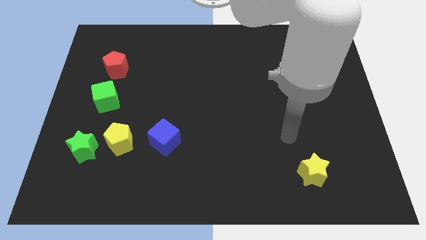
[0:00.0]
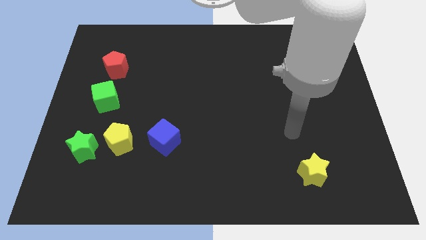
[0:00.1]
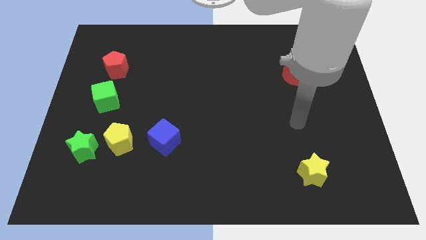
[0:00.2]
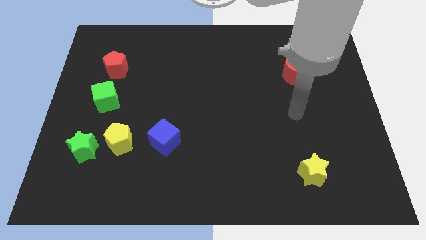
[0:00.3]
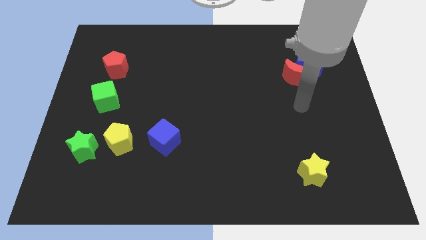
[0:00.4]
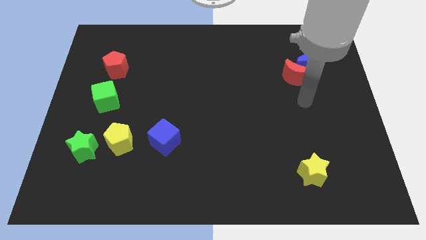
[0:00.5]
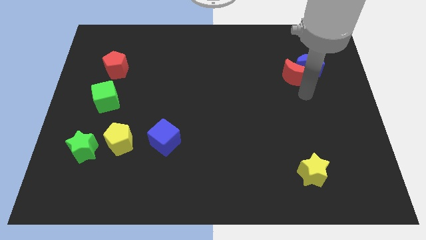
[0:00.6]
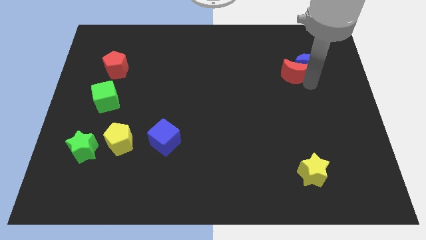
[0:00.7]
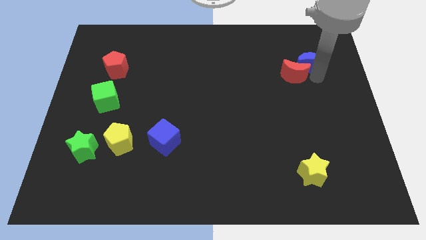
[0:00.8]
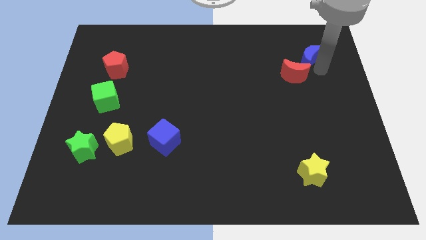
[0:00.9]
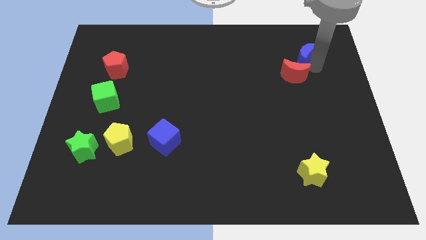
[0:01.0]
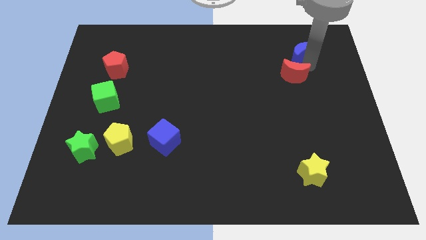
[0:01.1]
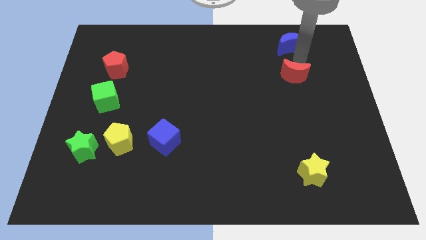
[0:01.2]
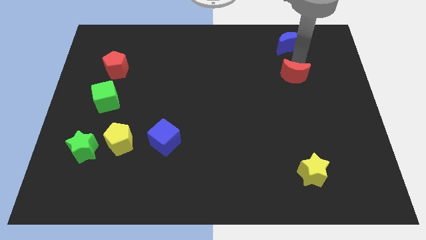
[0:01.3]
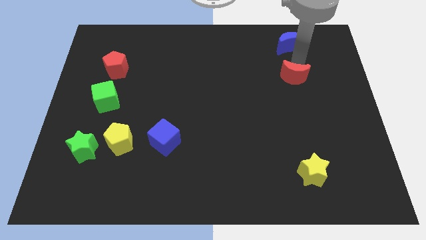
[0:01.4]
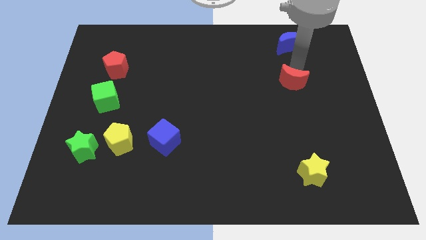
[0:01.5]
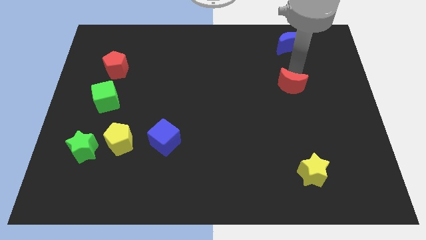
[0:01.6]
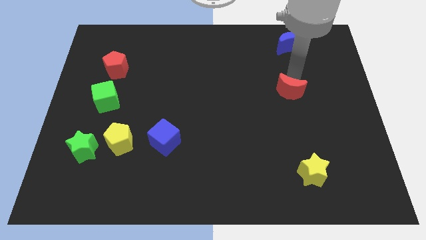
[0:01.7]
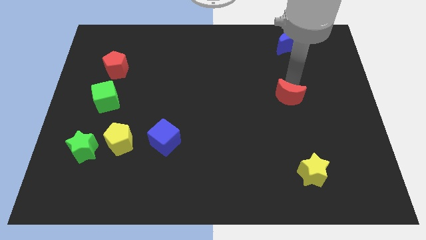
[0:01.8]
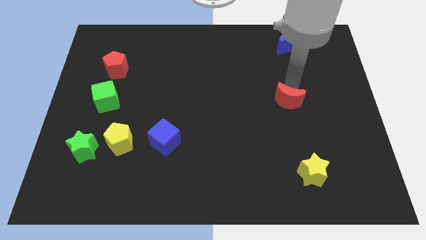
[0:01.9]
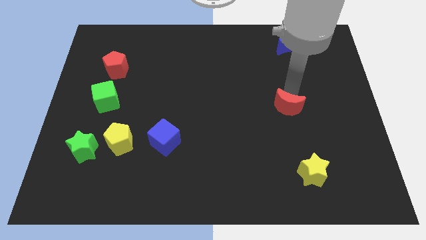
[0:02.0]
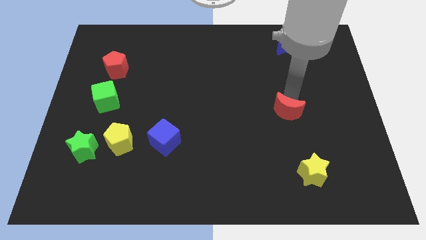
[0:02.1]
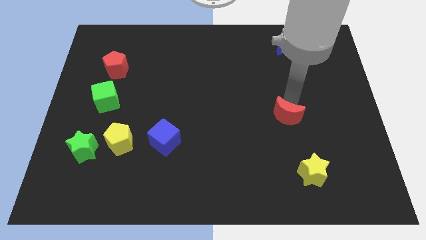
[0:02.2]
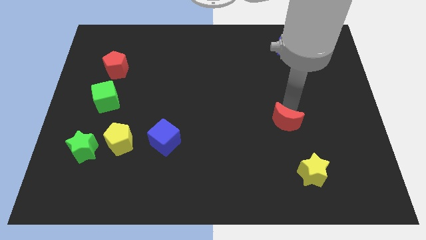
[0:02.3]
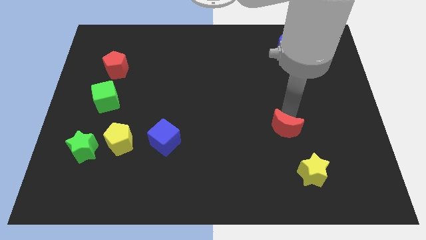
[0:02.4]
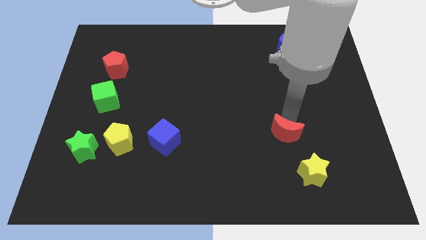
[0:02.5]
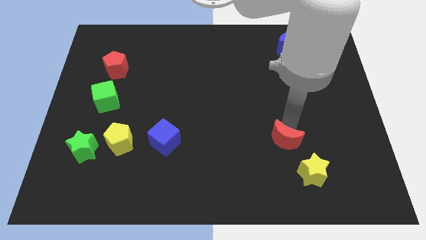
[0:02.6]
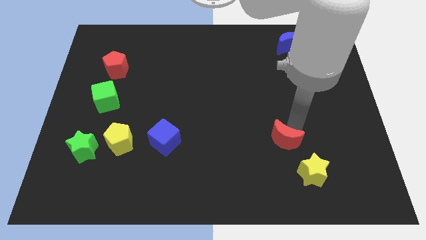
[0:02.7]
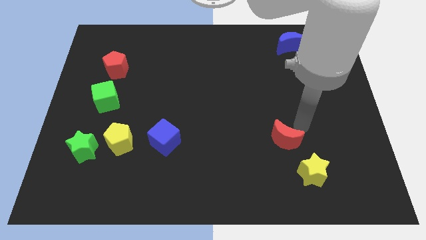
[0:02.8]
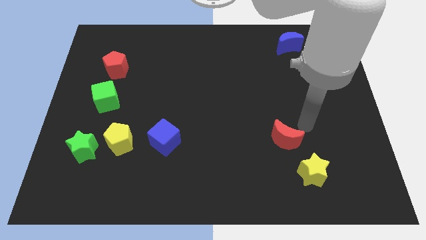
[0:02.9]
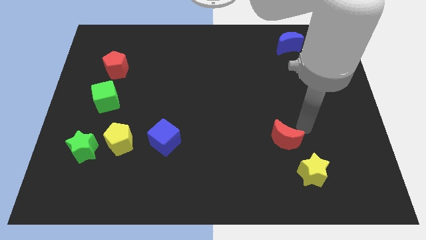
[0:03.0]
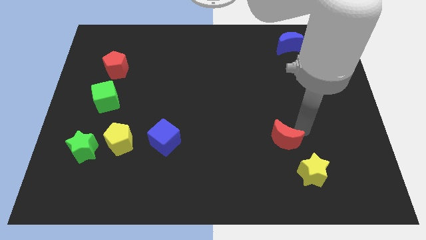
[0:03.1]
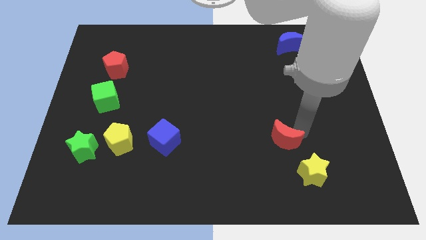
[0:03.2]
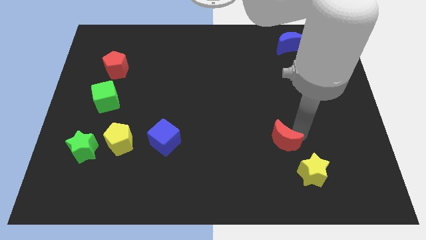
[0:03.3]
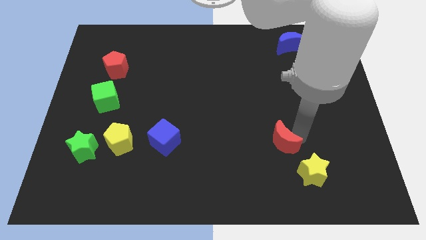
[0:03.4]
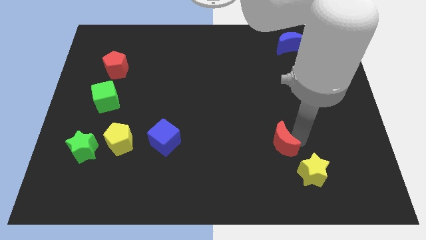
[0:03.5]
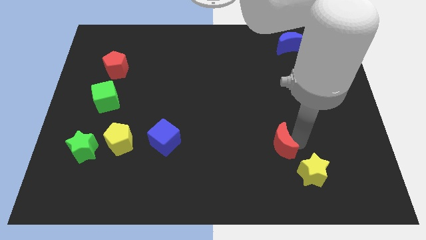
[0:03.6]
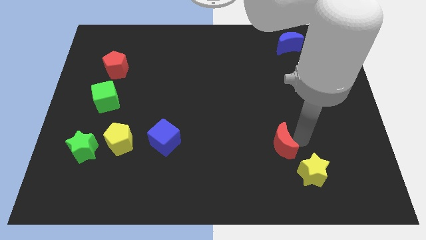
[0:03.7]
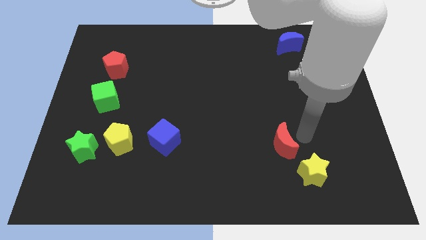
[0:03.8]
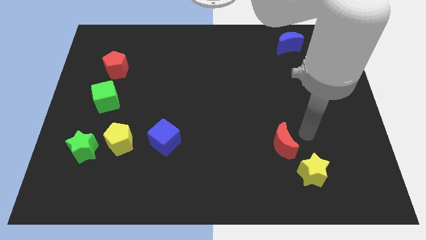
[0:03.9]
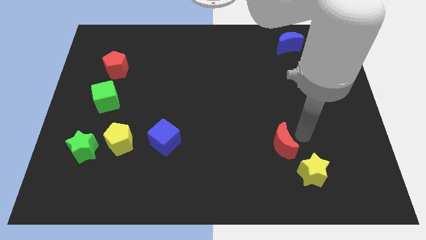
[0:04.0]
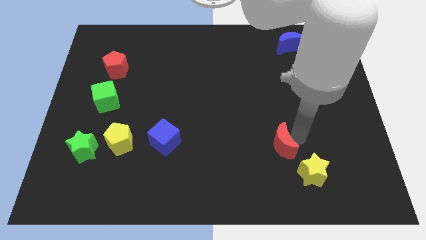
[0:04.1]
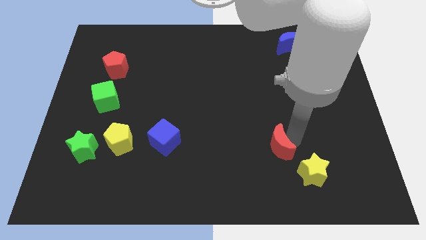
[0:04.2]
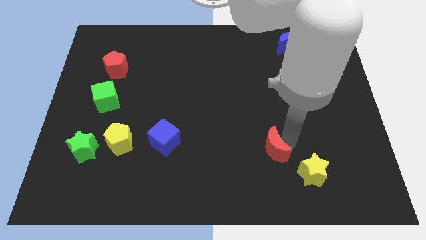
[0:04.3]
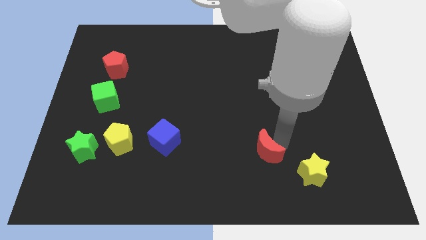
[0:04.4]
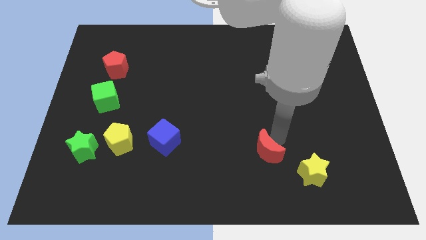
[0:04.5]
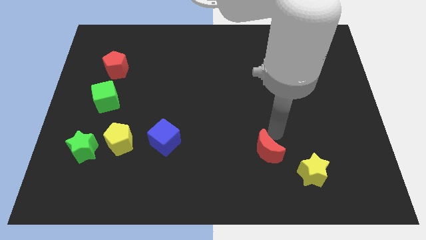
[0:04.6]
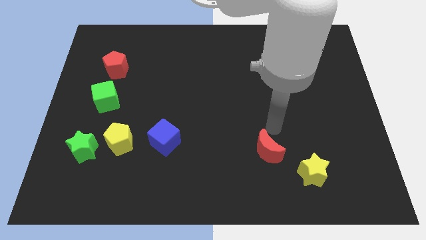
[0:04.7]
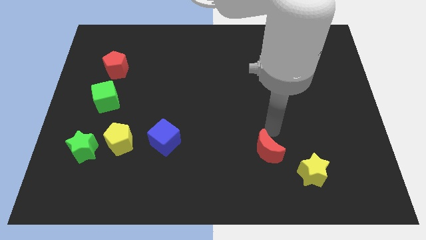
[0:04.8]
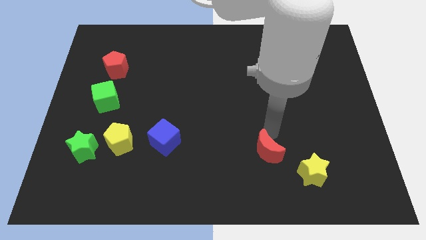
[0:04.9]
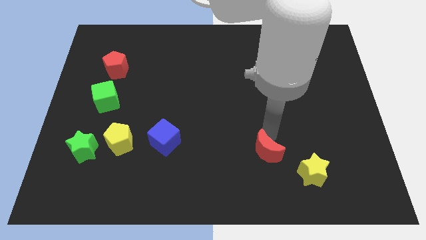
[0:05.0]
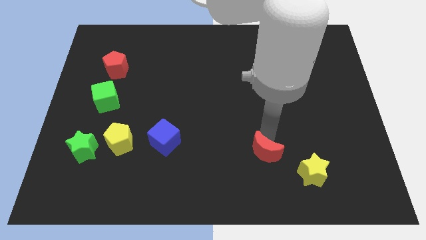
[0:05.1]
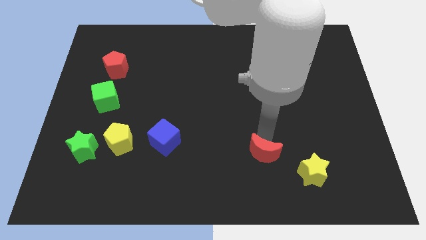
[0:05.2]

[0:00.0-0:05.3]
move the red moon to the left of the yellow star
